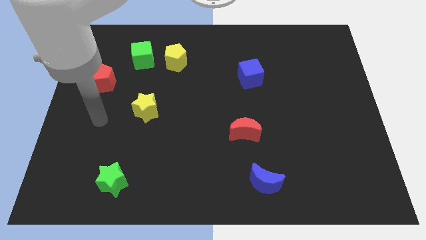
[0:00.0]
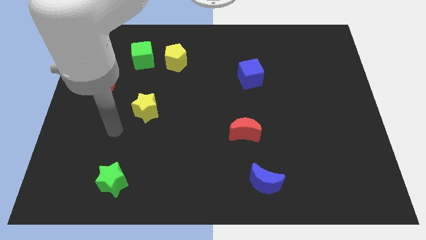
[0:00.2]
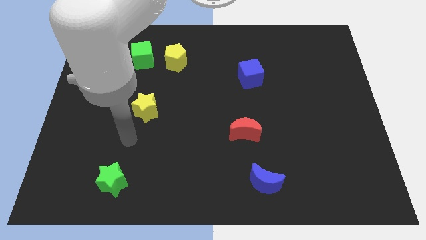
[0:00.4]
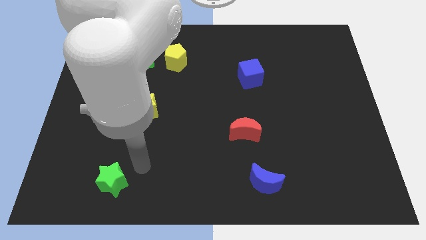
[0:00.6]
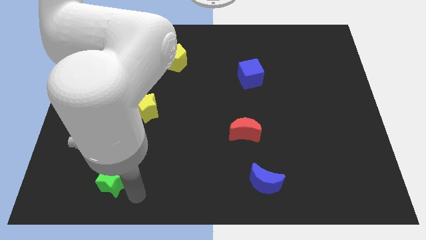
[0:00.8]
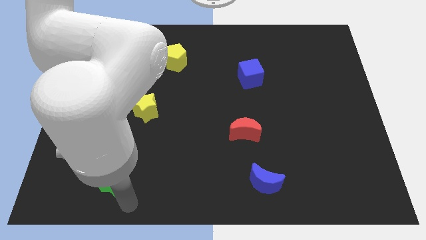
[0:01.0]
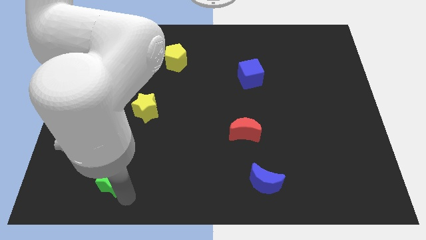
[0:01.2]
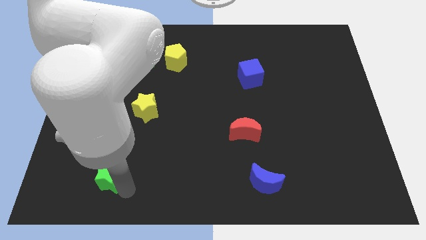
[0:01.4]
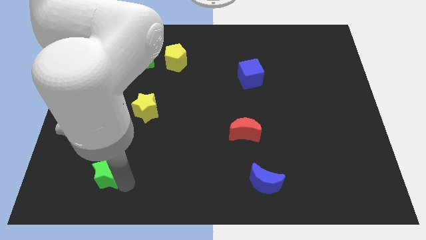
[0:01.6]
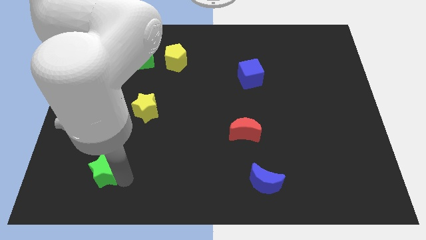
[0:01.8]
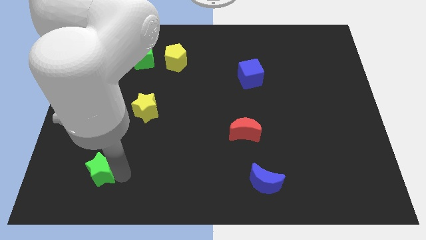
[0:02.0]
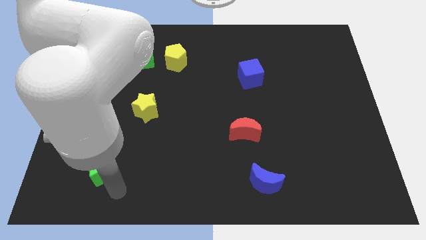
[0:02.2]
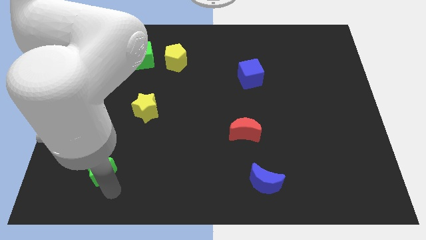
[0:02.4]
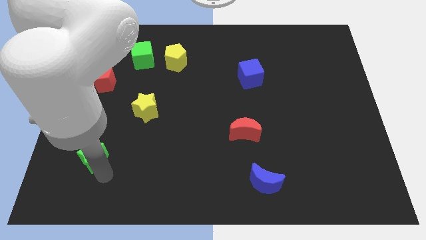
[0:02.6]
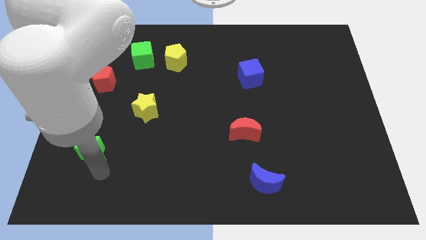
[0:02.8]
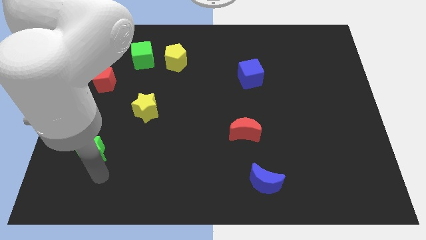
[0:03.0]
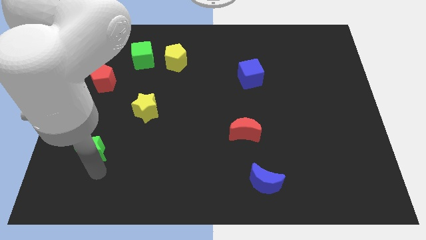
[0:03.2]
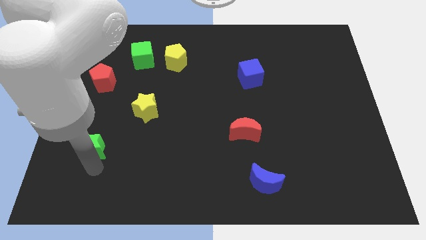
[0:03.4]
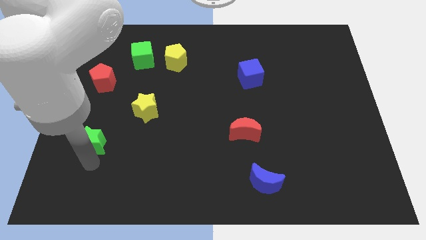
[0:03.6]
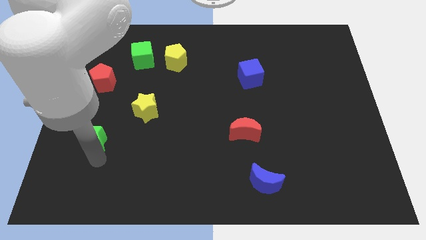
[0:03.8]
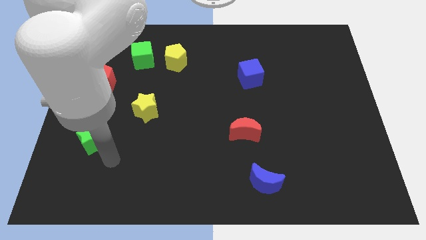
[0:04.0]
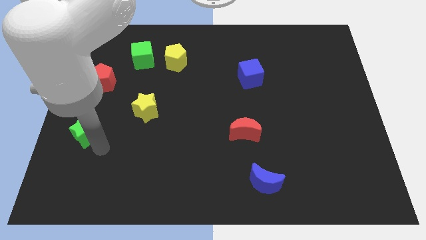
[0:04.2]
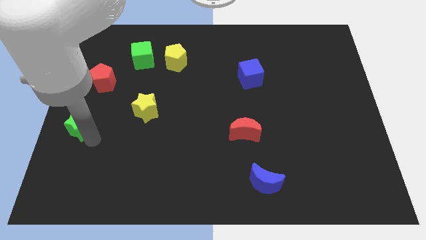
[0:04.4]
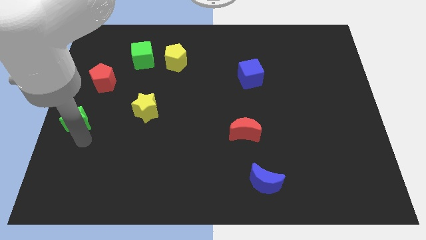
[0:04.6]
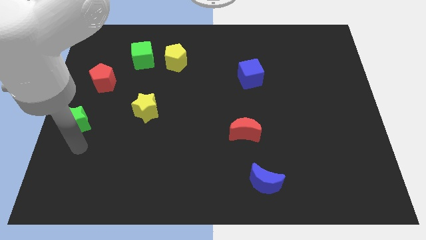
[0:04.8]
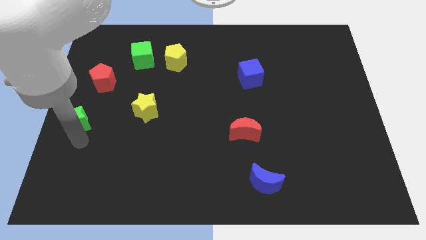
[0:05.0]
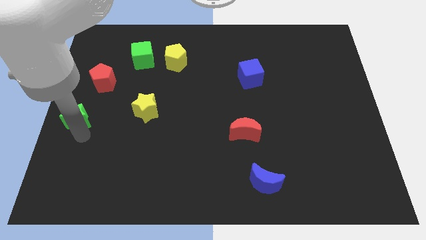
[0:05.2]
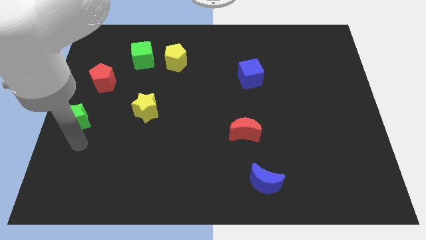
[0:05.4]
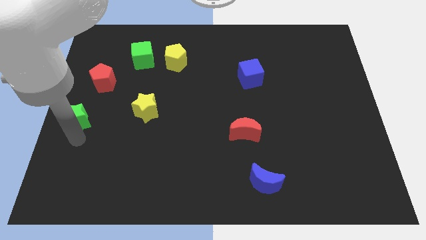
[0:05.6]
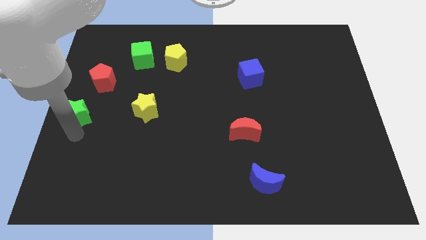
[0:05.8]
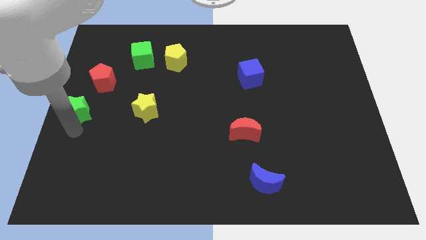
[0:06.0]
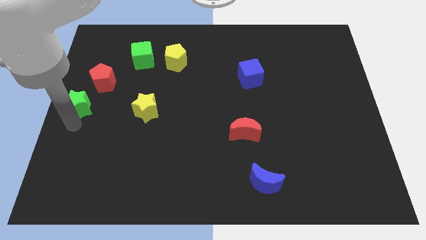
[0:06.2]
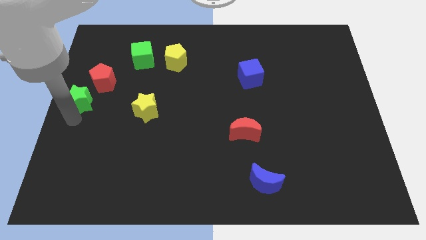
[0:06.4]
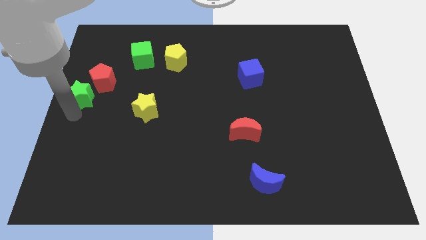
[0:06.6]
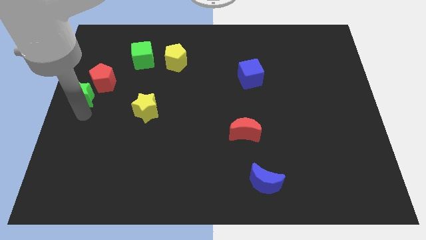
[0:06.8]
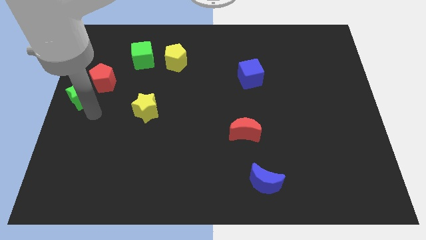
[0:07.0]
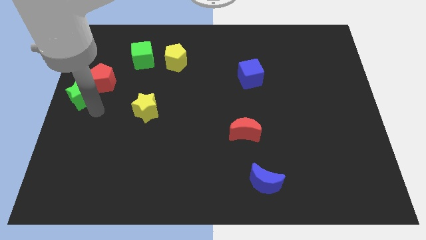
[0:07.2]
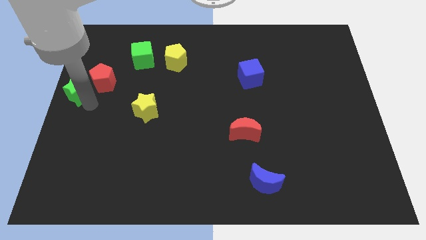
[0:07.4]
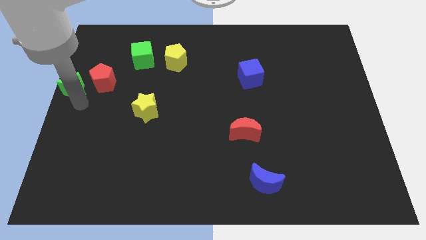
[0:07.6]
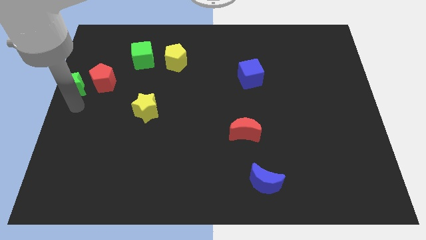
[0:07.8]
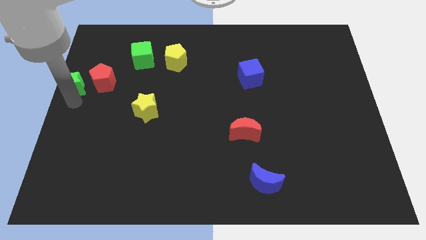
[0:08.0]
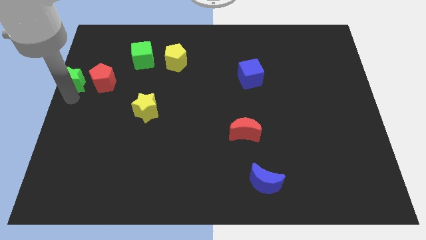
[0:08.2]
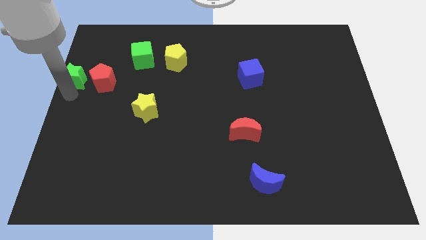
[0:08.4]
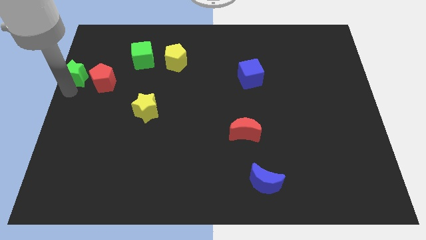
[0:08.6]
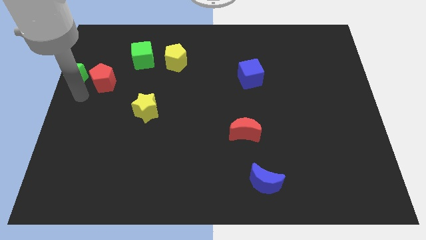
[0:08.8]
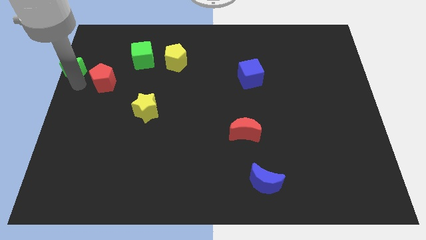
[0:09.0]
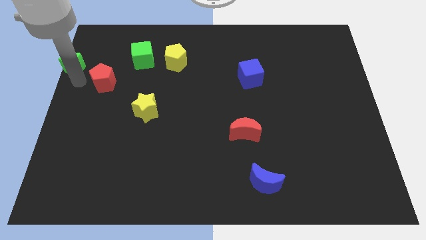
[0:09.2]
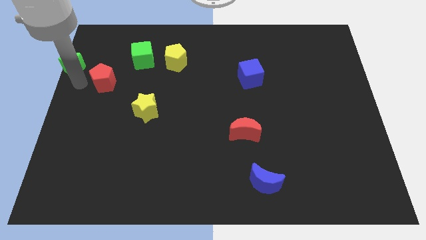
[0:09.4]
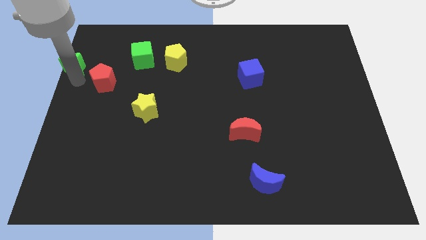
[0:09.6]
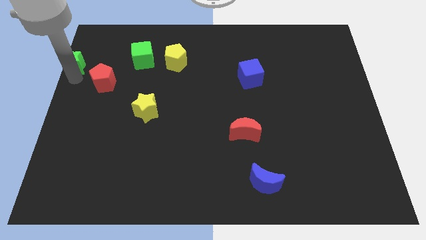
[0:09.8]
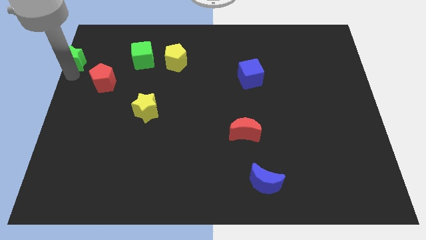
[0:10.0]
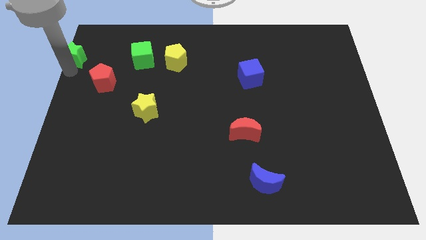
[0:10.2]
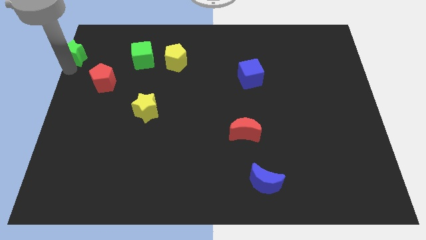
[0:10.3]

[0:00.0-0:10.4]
put the green star to the top left corner

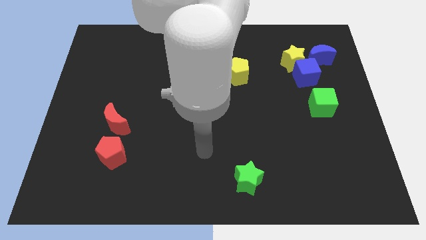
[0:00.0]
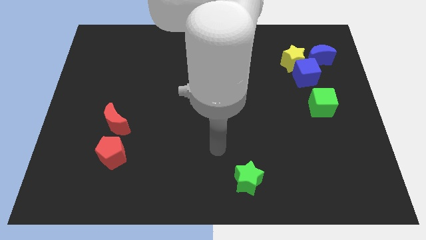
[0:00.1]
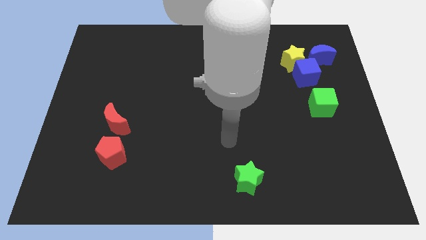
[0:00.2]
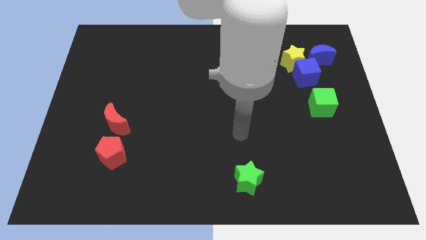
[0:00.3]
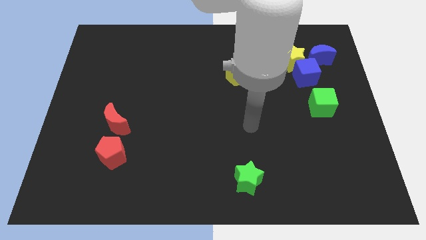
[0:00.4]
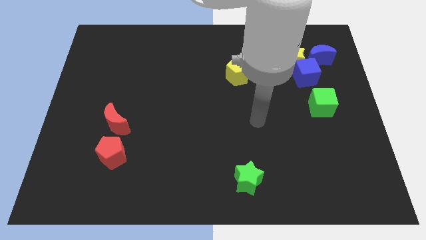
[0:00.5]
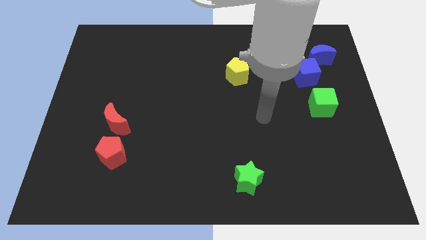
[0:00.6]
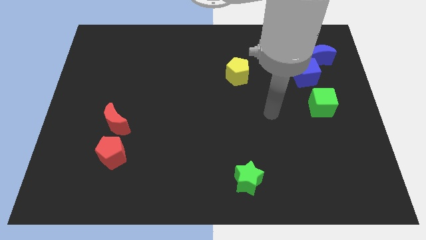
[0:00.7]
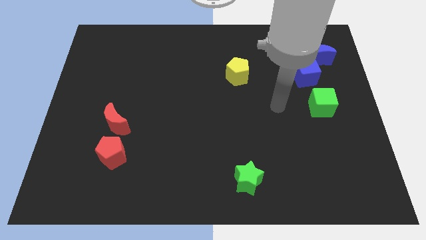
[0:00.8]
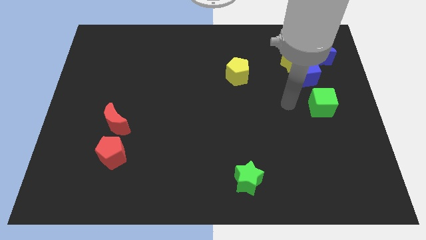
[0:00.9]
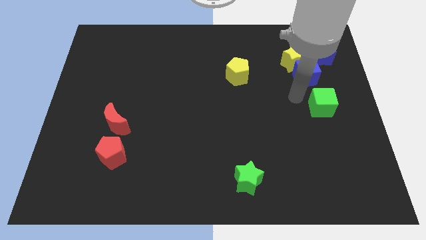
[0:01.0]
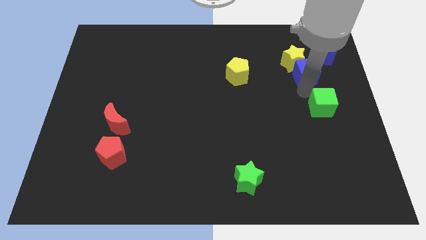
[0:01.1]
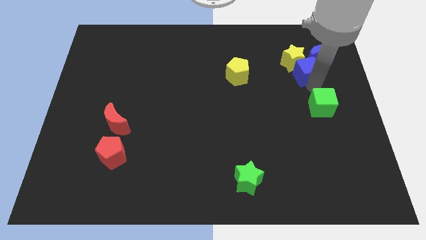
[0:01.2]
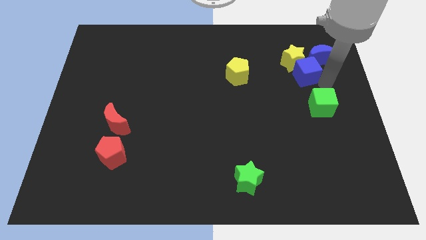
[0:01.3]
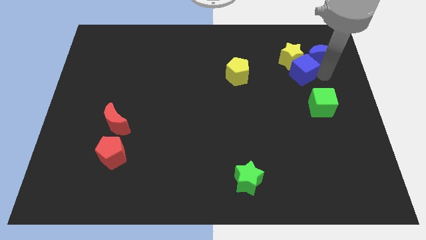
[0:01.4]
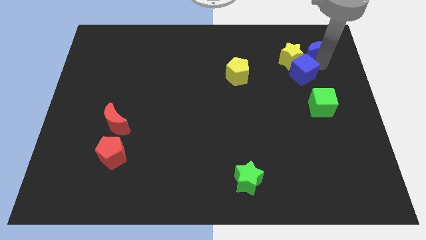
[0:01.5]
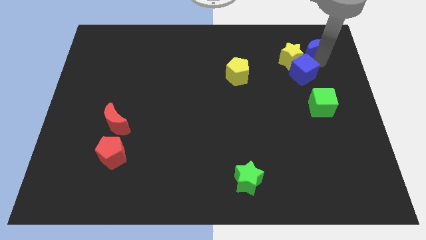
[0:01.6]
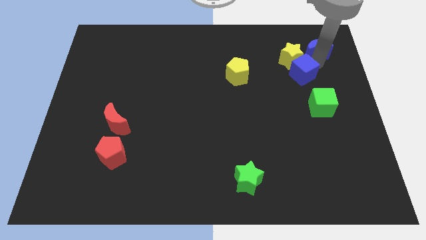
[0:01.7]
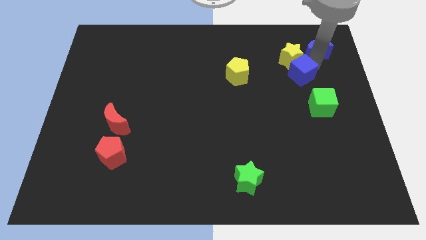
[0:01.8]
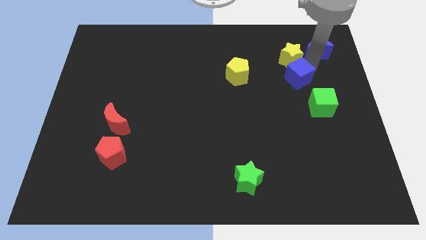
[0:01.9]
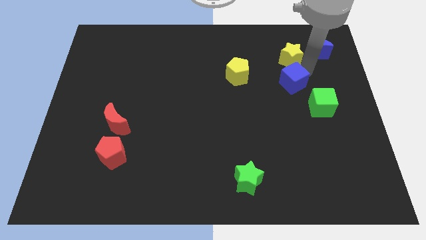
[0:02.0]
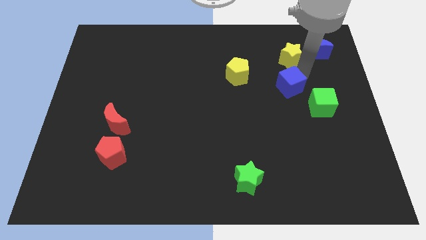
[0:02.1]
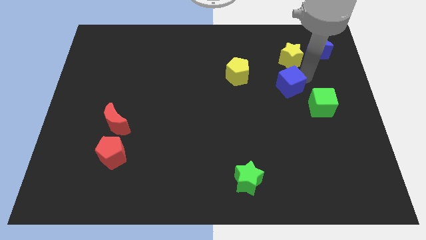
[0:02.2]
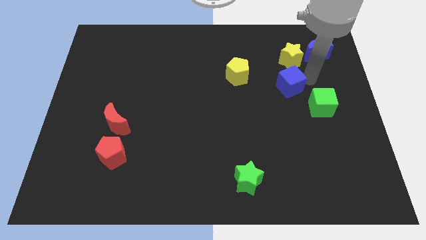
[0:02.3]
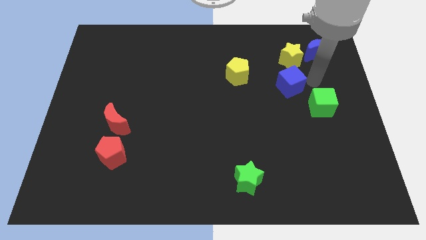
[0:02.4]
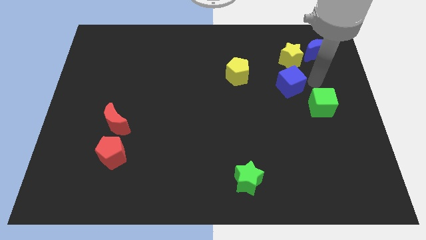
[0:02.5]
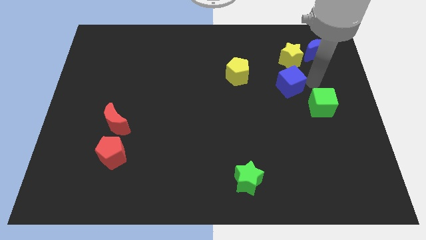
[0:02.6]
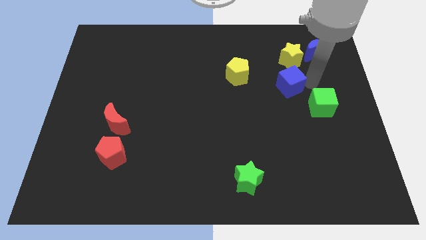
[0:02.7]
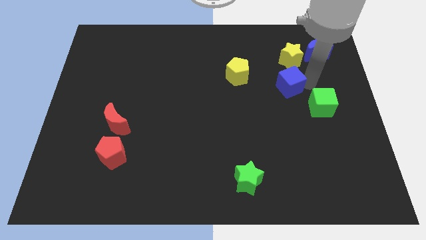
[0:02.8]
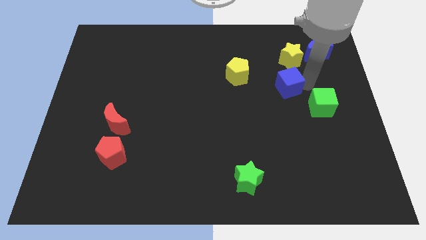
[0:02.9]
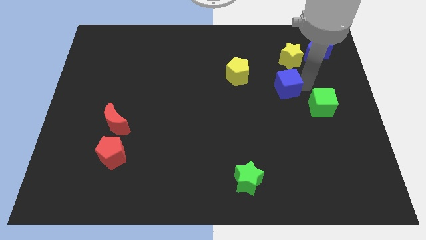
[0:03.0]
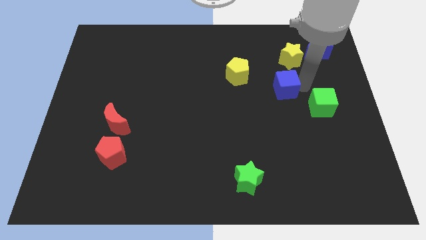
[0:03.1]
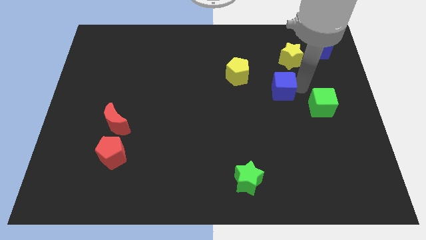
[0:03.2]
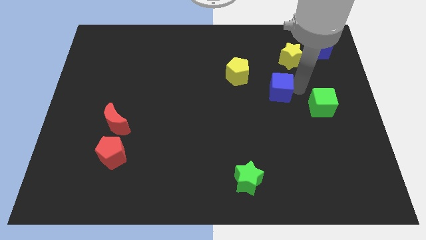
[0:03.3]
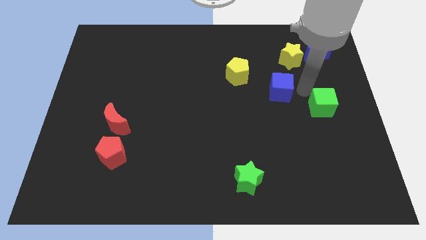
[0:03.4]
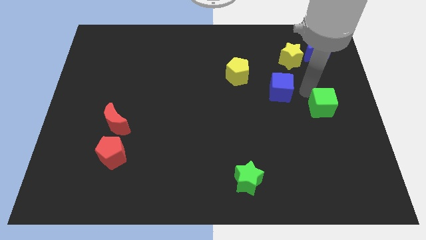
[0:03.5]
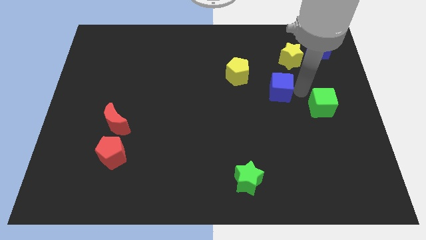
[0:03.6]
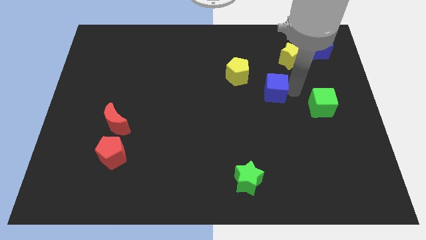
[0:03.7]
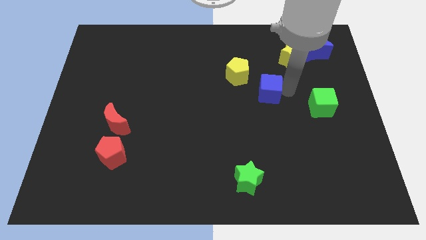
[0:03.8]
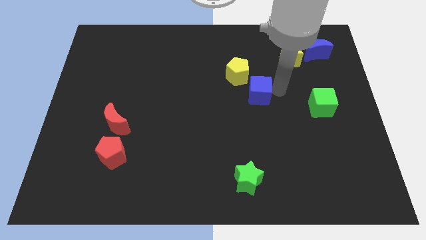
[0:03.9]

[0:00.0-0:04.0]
move the blue cube to the center
